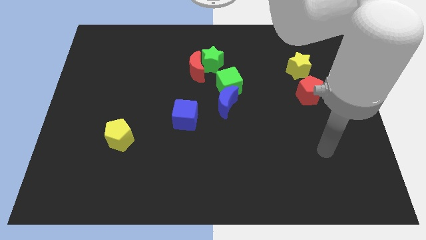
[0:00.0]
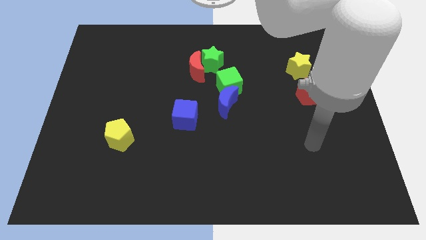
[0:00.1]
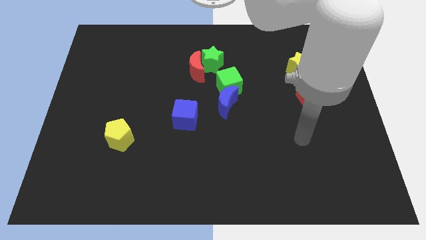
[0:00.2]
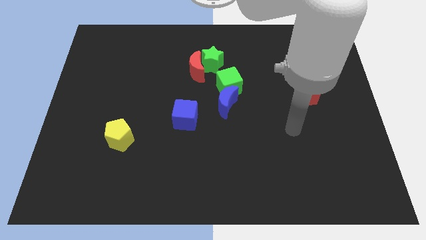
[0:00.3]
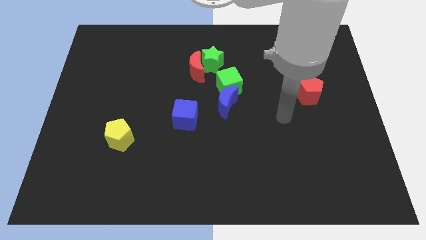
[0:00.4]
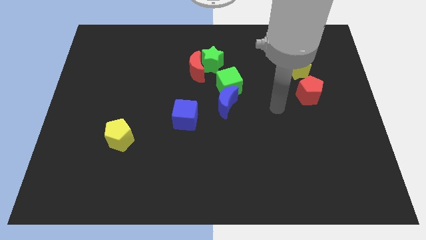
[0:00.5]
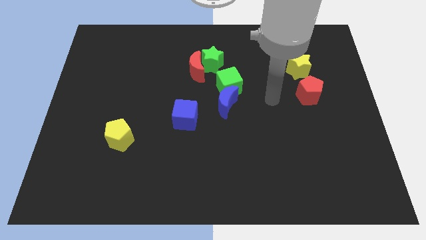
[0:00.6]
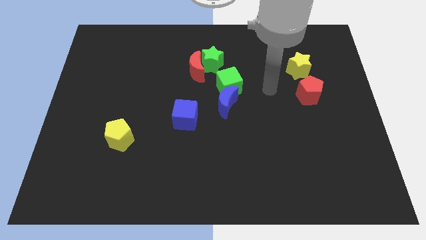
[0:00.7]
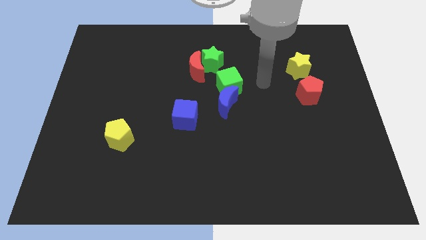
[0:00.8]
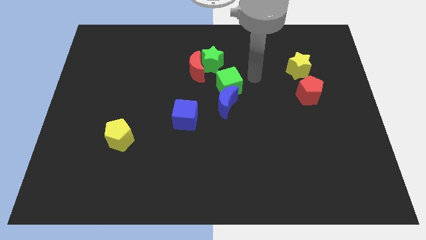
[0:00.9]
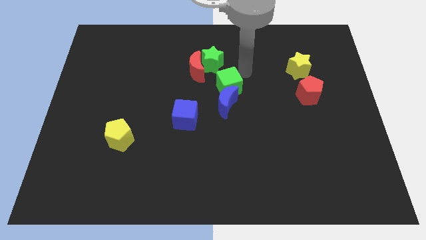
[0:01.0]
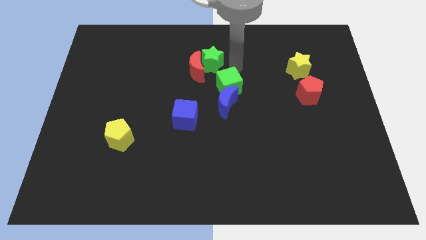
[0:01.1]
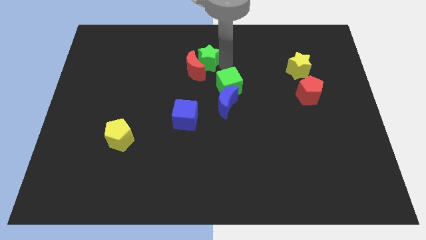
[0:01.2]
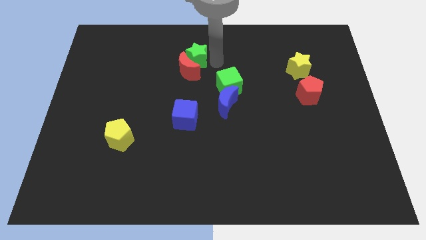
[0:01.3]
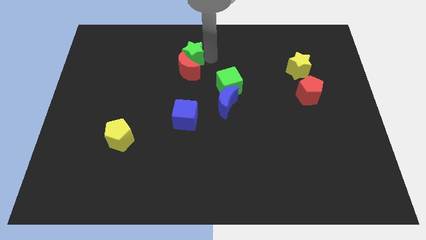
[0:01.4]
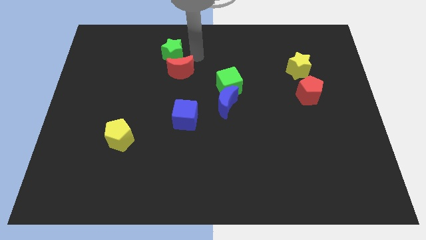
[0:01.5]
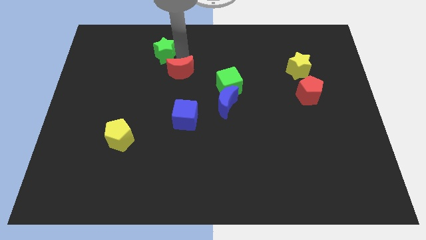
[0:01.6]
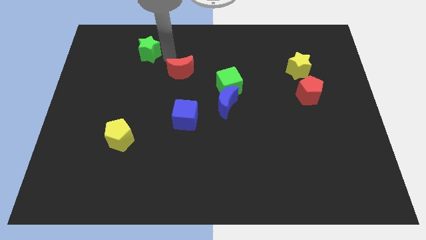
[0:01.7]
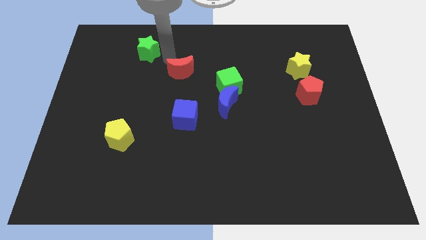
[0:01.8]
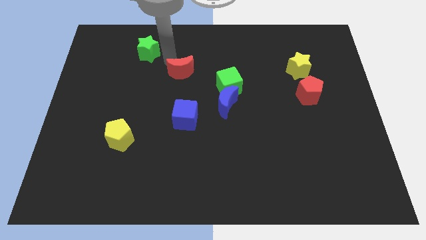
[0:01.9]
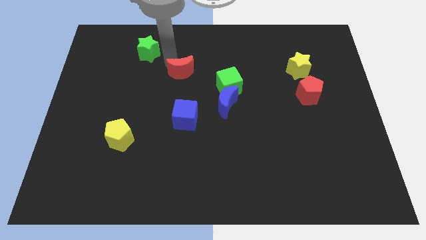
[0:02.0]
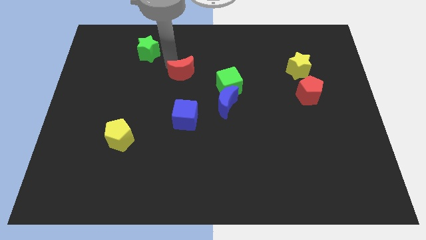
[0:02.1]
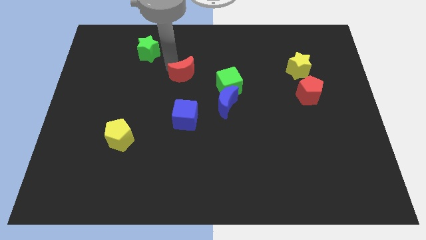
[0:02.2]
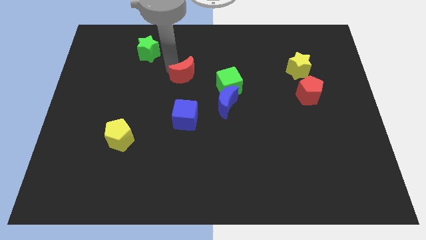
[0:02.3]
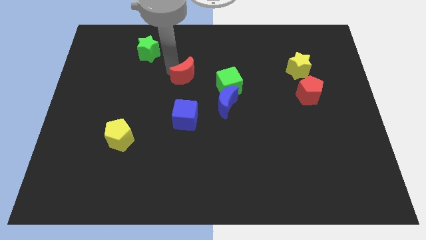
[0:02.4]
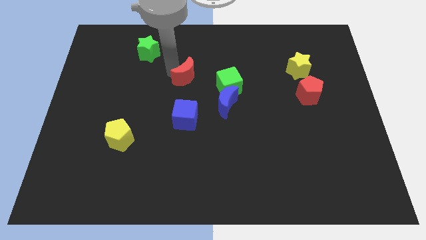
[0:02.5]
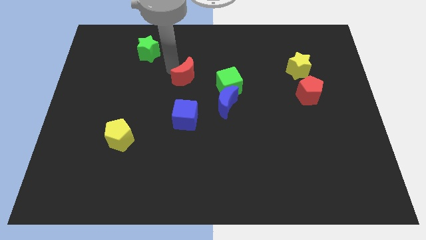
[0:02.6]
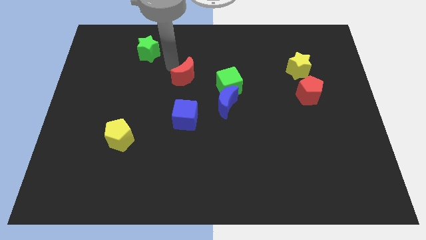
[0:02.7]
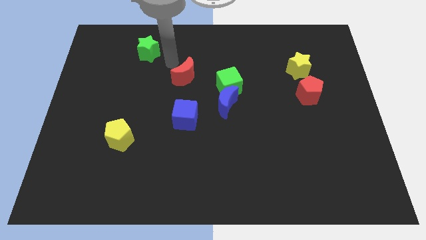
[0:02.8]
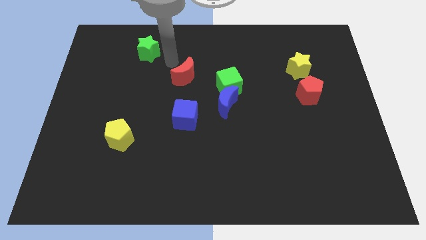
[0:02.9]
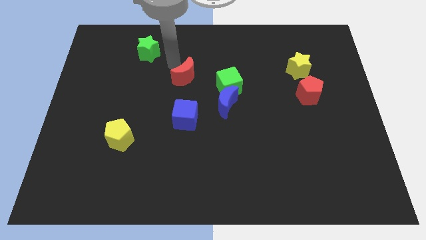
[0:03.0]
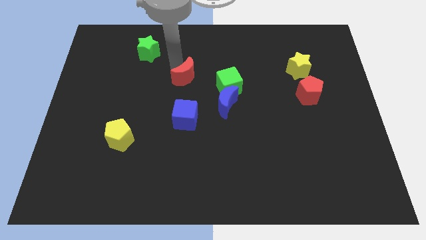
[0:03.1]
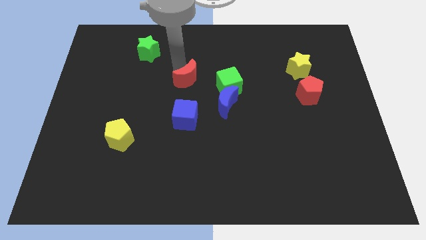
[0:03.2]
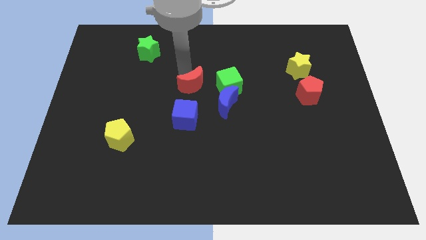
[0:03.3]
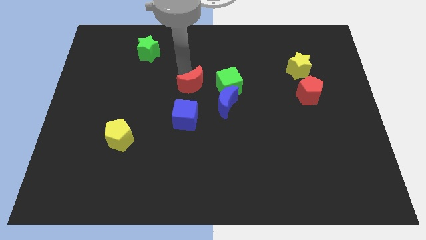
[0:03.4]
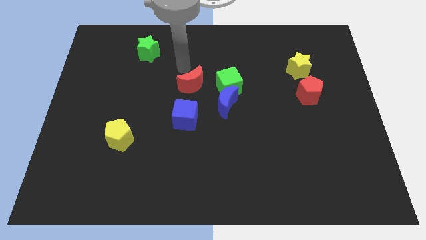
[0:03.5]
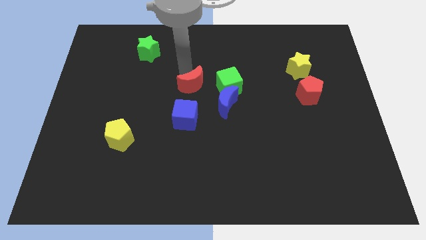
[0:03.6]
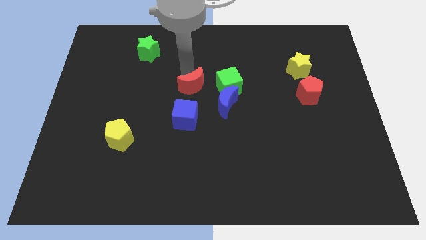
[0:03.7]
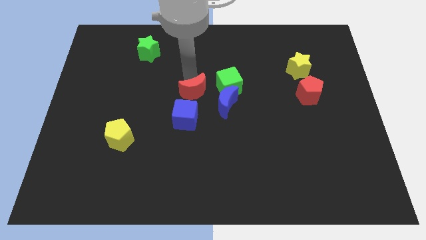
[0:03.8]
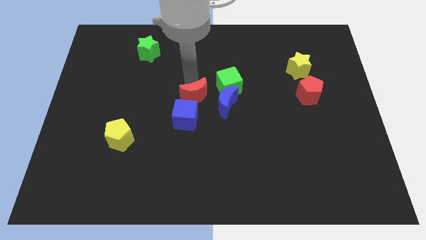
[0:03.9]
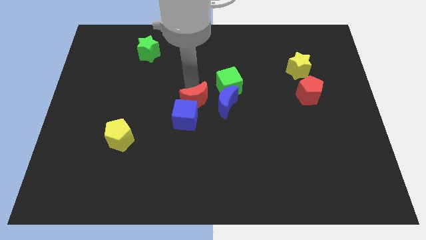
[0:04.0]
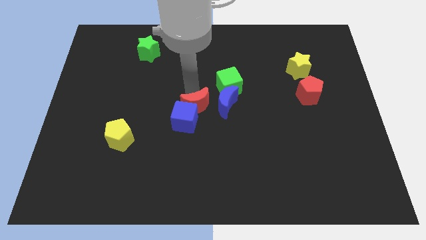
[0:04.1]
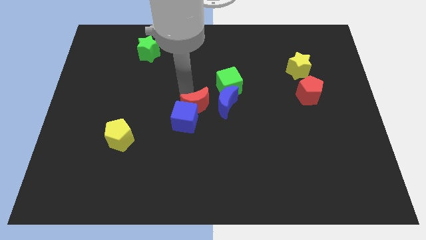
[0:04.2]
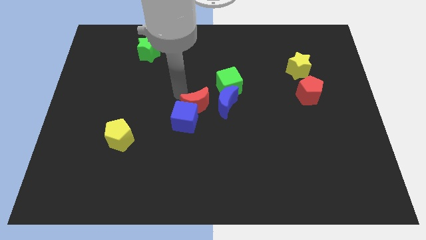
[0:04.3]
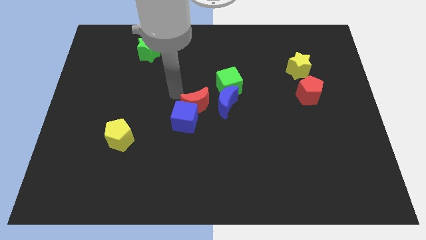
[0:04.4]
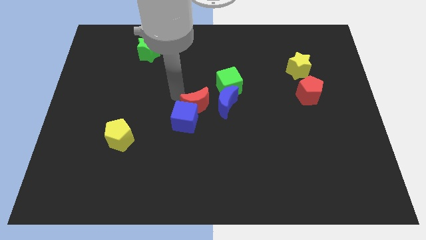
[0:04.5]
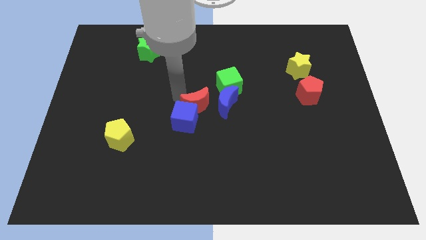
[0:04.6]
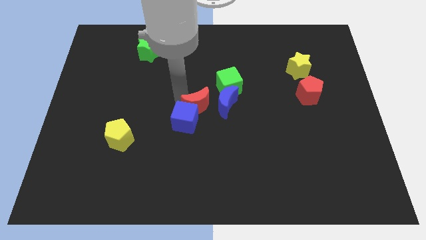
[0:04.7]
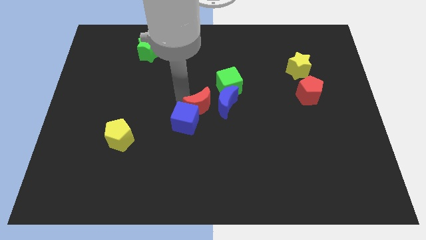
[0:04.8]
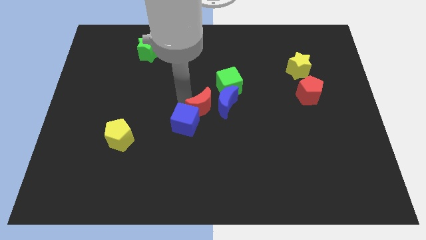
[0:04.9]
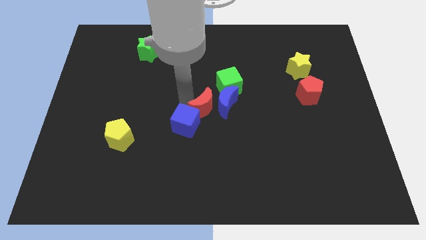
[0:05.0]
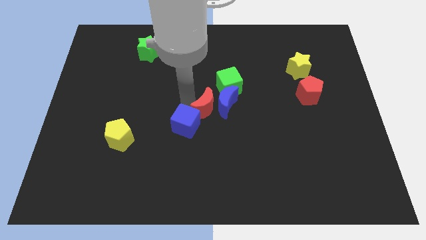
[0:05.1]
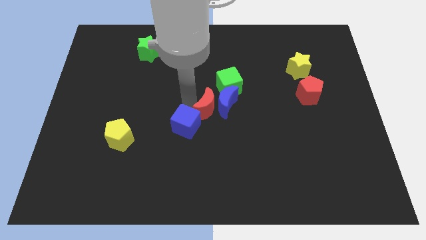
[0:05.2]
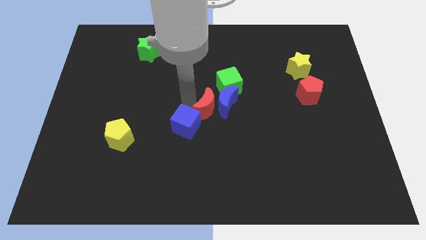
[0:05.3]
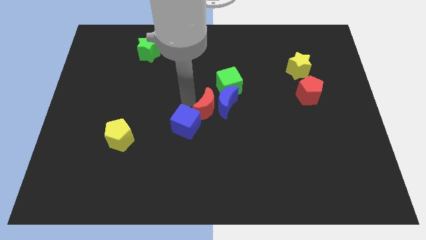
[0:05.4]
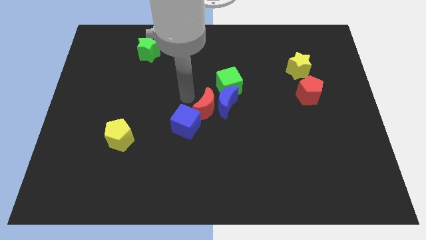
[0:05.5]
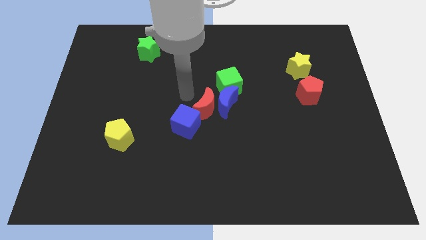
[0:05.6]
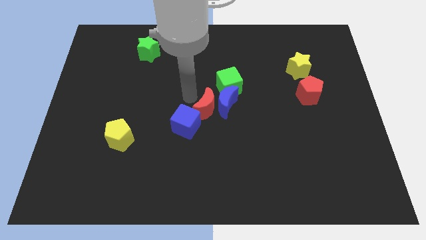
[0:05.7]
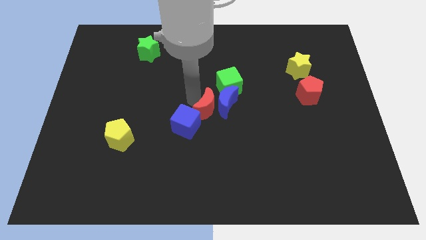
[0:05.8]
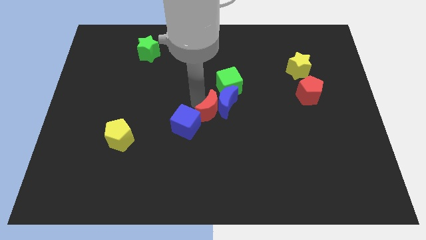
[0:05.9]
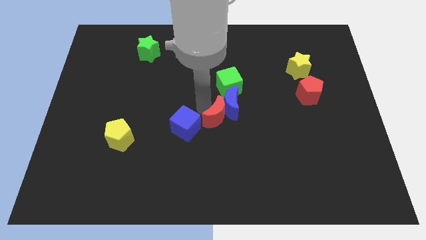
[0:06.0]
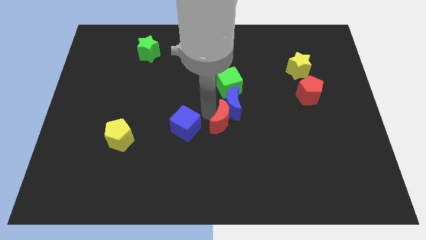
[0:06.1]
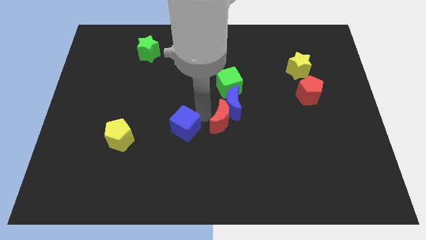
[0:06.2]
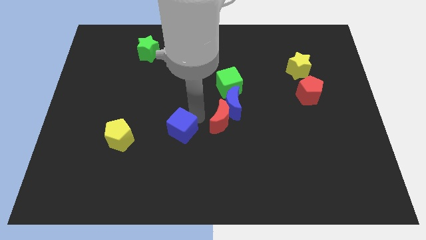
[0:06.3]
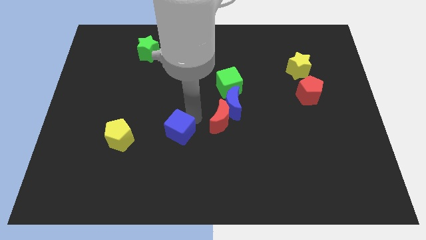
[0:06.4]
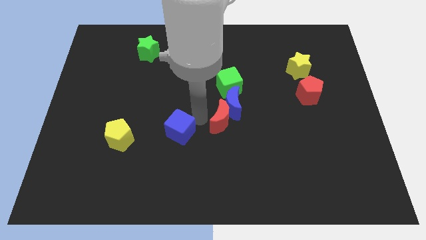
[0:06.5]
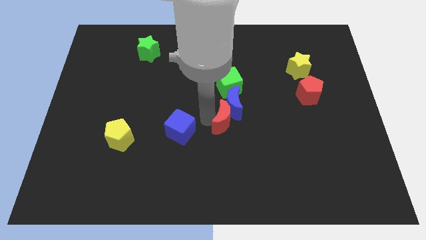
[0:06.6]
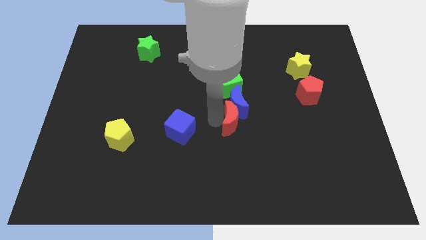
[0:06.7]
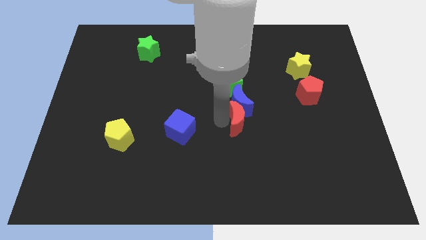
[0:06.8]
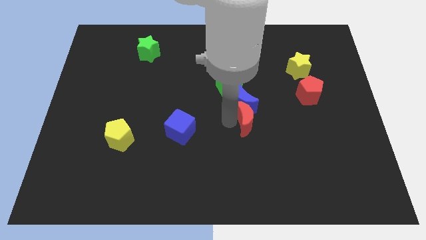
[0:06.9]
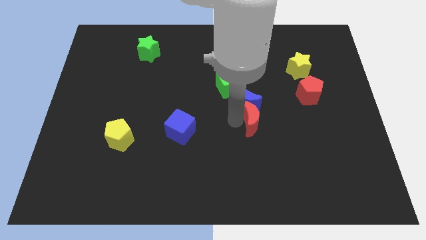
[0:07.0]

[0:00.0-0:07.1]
slide the red moon down and right

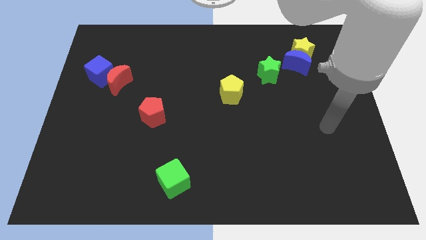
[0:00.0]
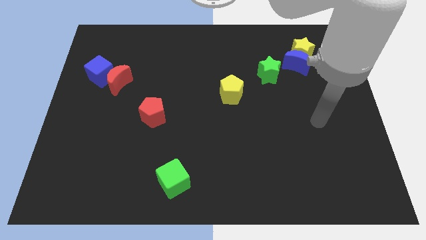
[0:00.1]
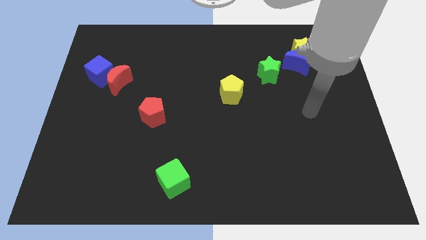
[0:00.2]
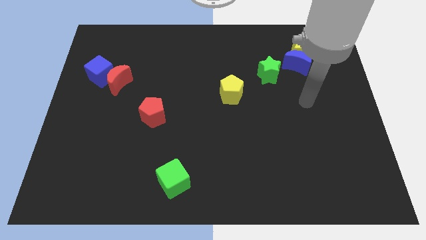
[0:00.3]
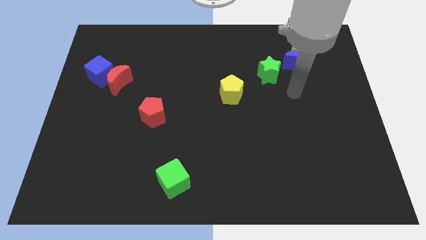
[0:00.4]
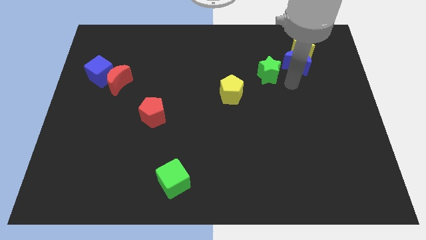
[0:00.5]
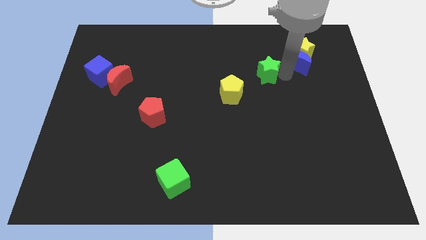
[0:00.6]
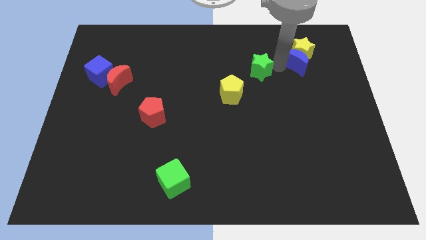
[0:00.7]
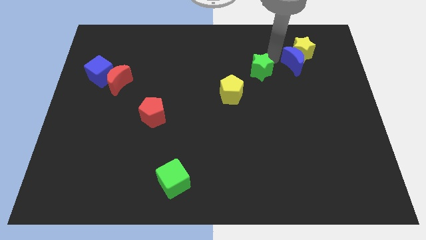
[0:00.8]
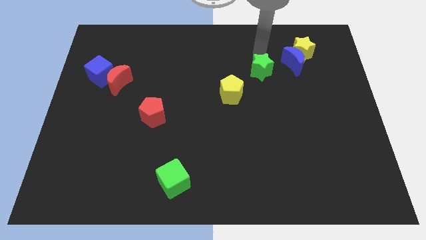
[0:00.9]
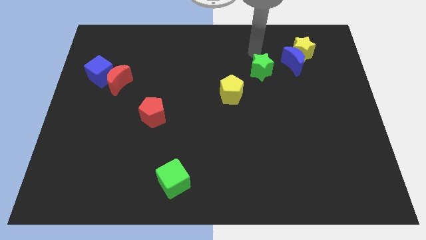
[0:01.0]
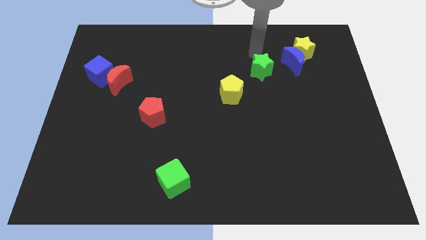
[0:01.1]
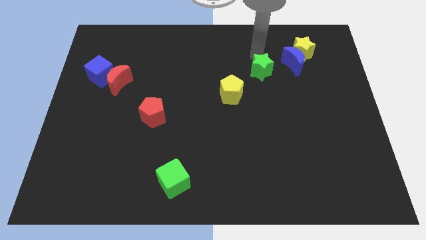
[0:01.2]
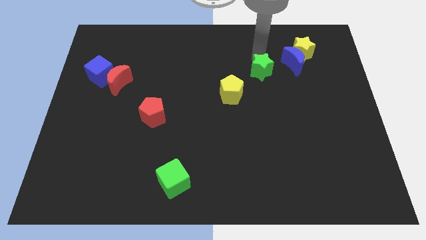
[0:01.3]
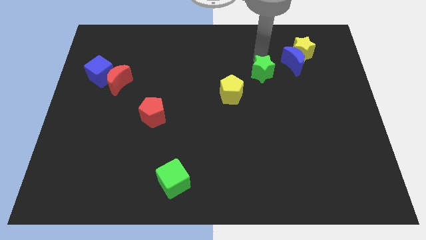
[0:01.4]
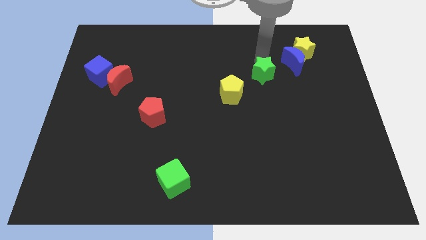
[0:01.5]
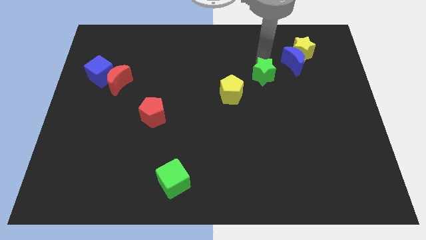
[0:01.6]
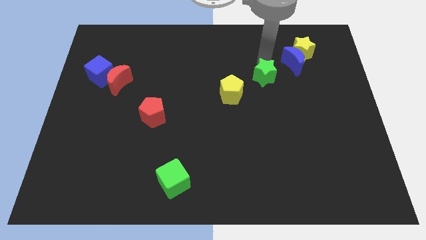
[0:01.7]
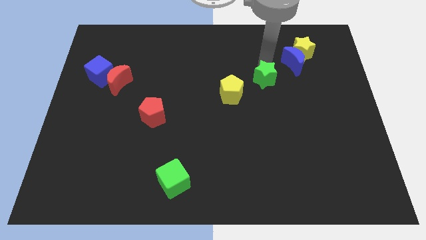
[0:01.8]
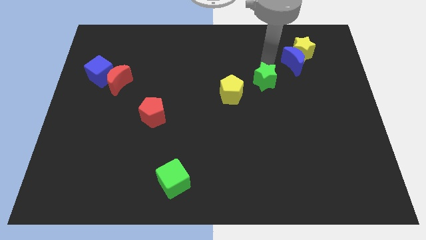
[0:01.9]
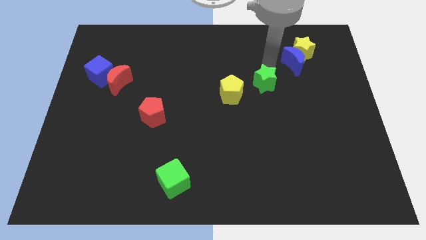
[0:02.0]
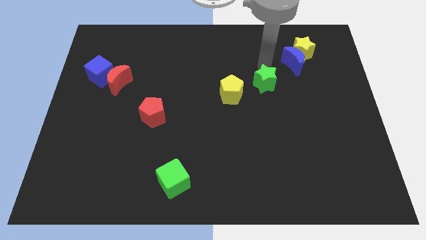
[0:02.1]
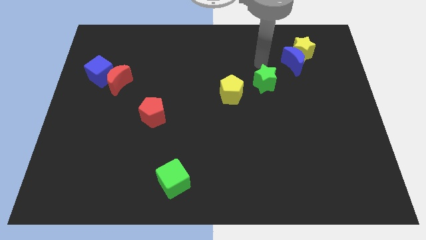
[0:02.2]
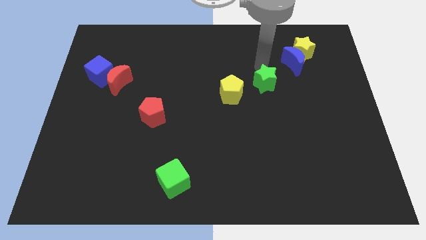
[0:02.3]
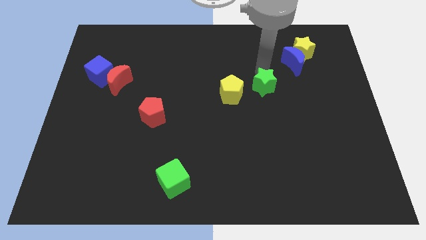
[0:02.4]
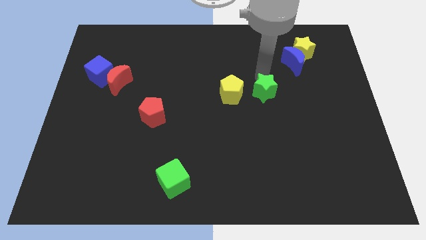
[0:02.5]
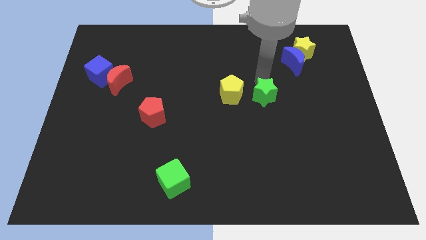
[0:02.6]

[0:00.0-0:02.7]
move the green star down slightly
